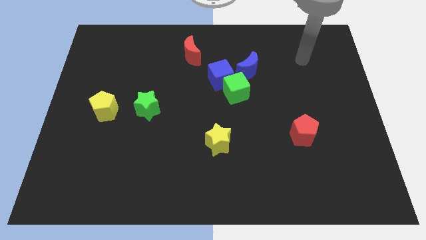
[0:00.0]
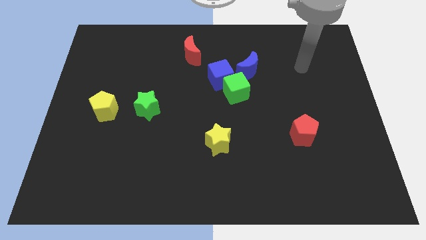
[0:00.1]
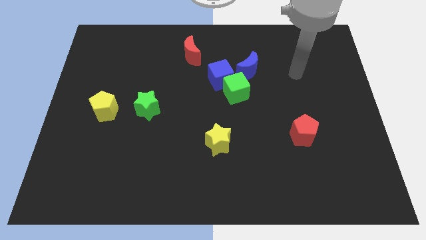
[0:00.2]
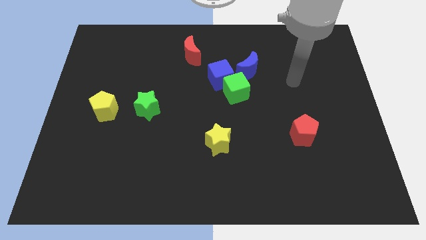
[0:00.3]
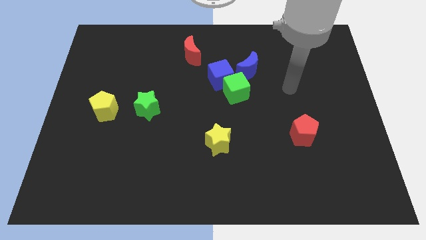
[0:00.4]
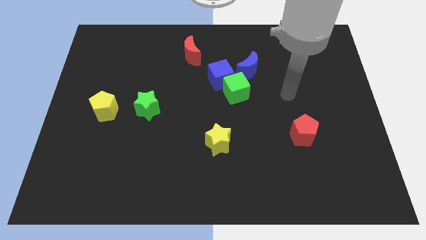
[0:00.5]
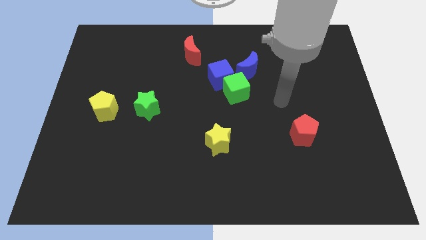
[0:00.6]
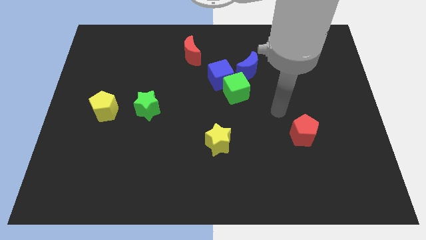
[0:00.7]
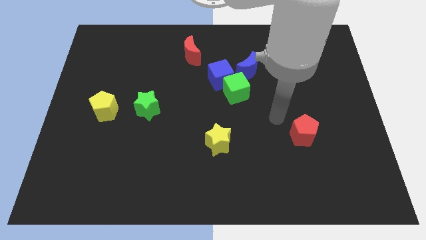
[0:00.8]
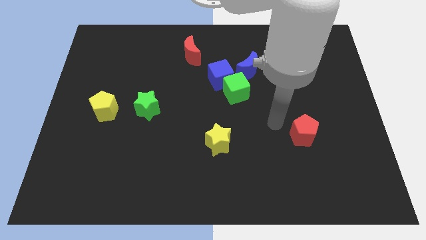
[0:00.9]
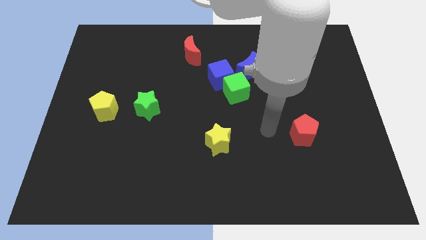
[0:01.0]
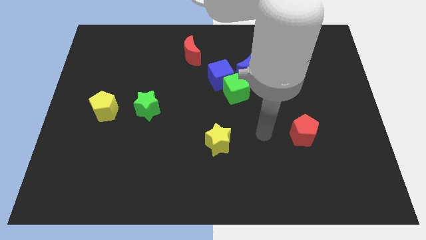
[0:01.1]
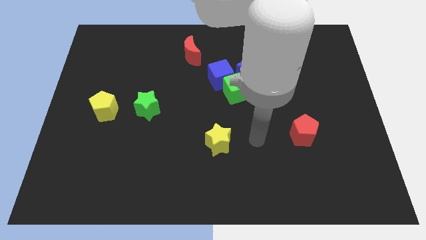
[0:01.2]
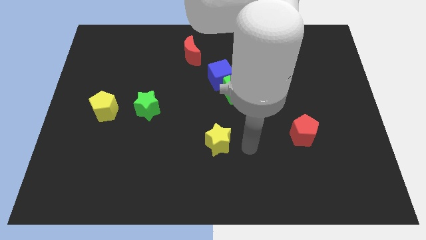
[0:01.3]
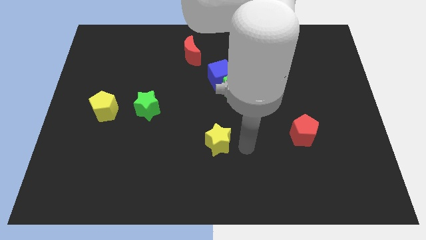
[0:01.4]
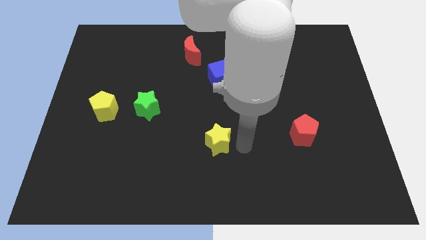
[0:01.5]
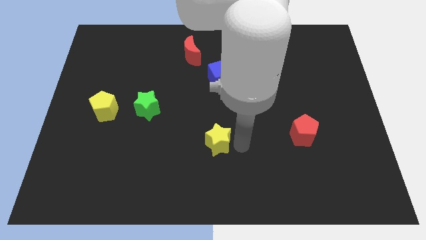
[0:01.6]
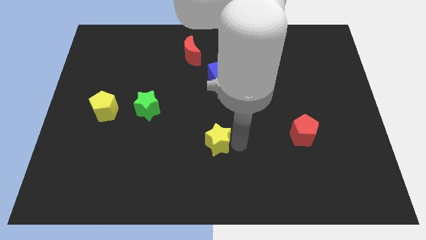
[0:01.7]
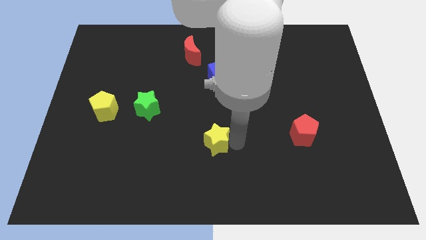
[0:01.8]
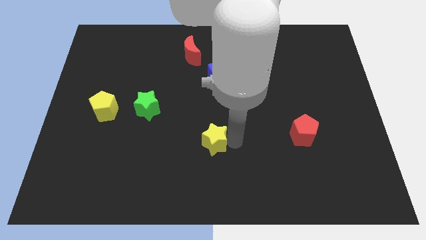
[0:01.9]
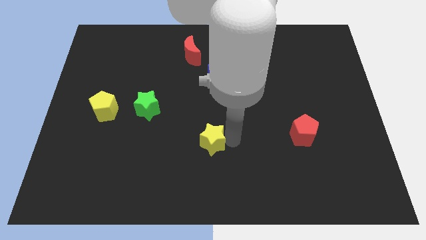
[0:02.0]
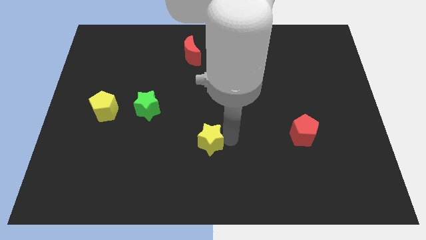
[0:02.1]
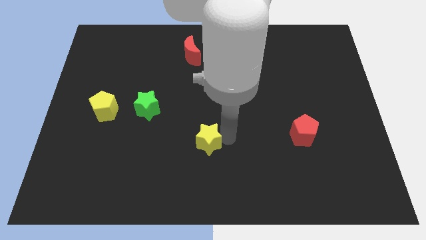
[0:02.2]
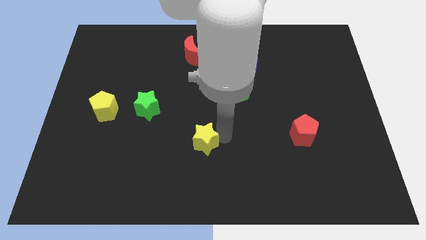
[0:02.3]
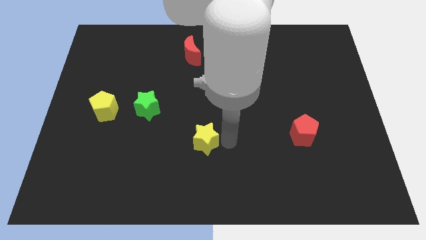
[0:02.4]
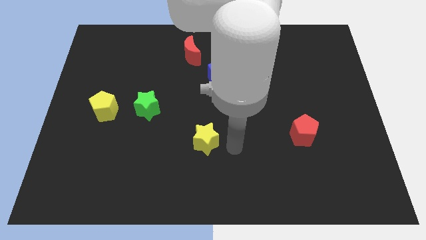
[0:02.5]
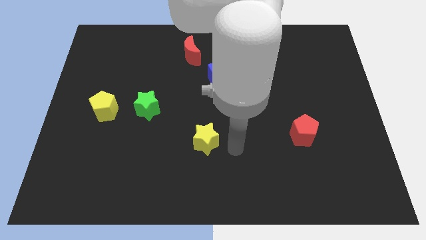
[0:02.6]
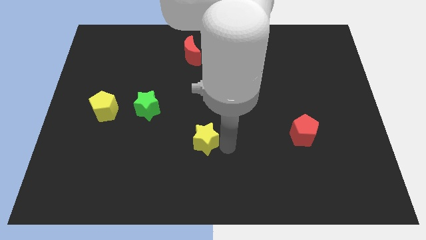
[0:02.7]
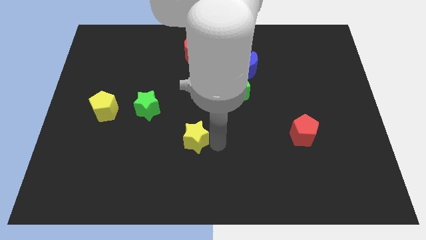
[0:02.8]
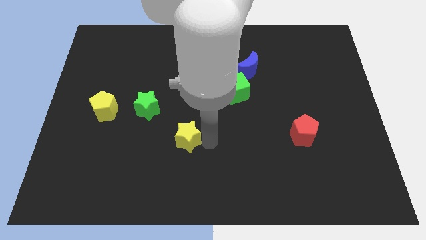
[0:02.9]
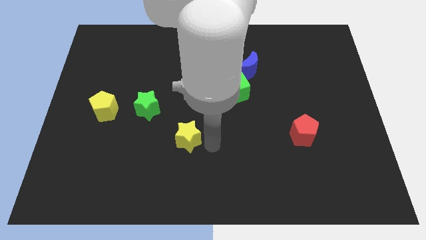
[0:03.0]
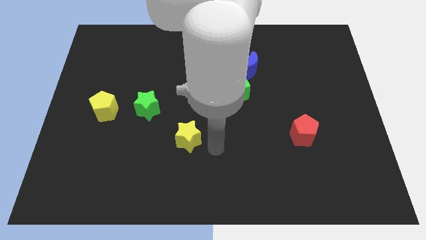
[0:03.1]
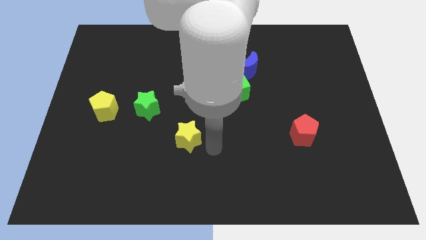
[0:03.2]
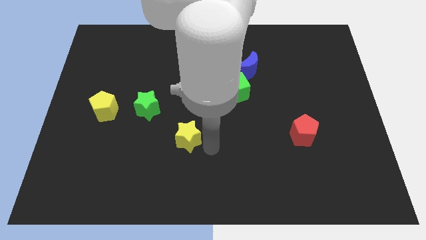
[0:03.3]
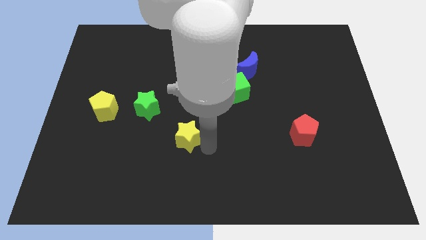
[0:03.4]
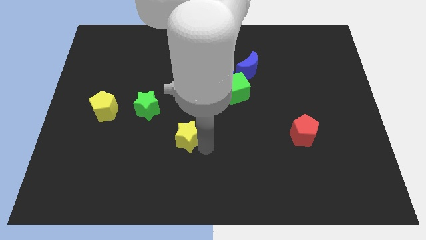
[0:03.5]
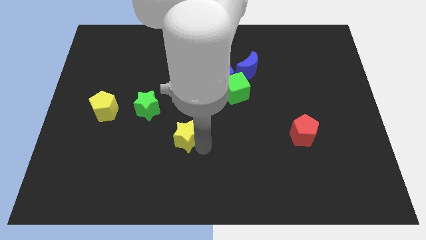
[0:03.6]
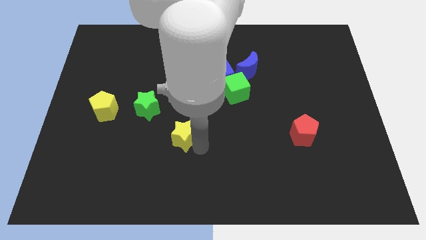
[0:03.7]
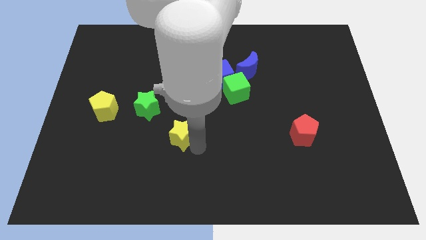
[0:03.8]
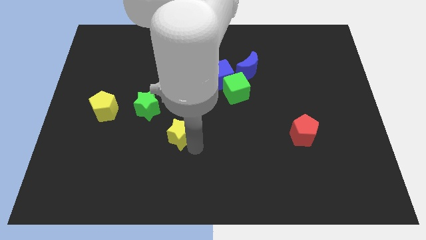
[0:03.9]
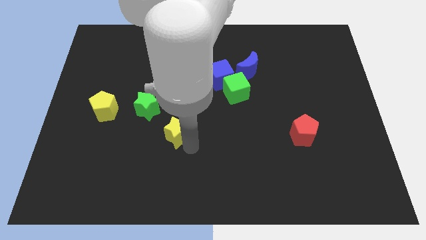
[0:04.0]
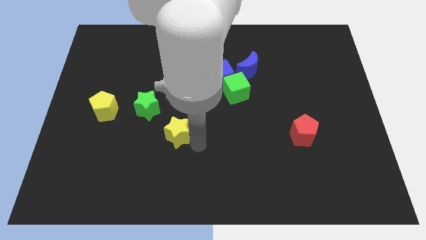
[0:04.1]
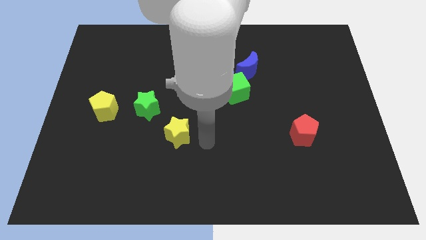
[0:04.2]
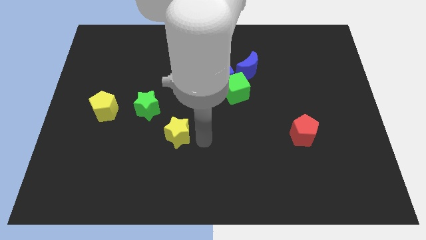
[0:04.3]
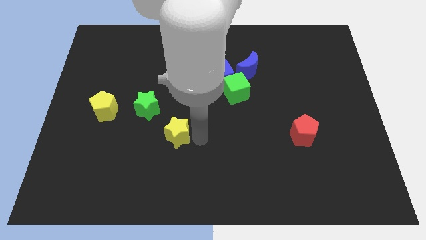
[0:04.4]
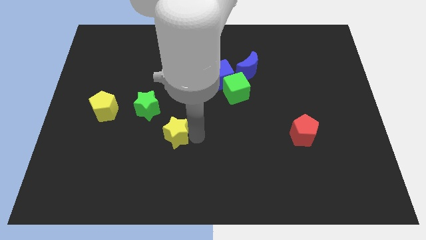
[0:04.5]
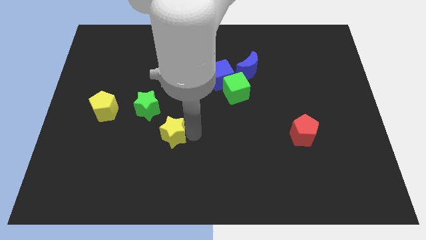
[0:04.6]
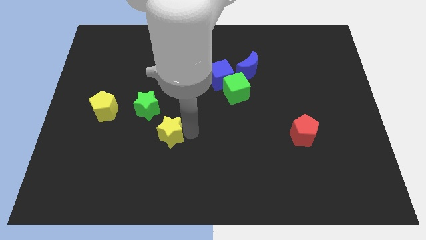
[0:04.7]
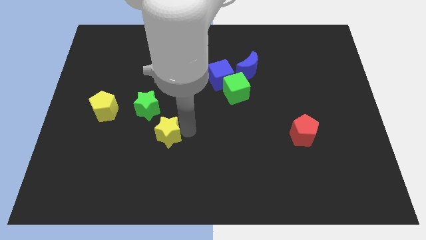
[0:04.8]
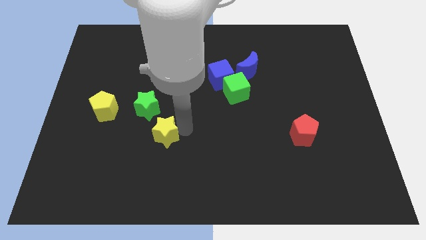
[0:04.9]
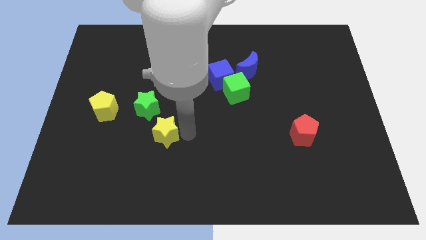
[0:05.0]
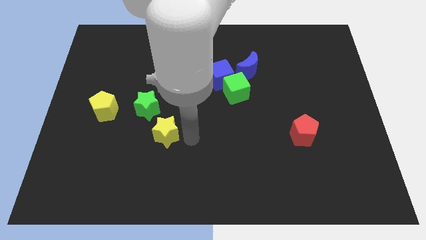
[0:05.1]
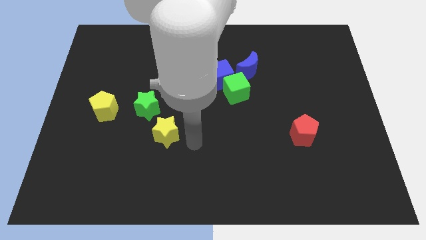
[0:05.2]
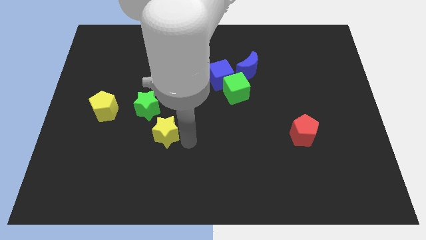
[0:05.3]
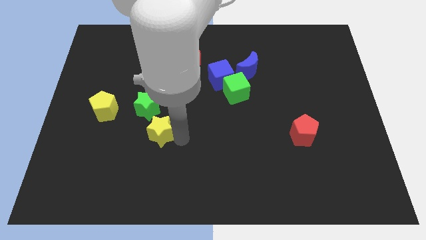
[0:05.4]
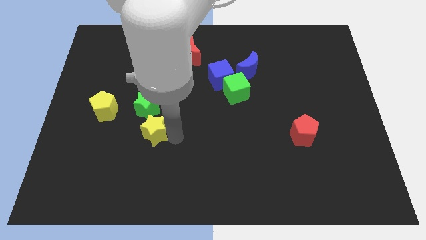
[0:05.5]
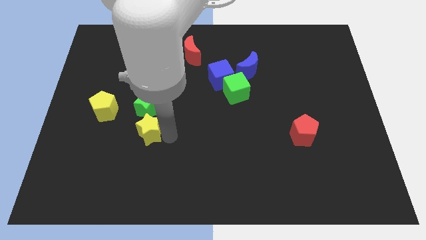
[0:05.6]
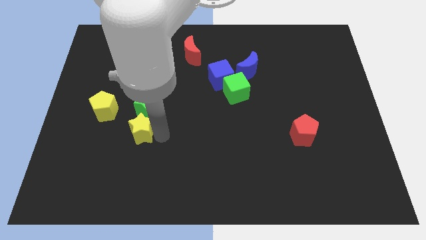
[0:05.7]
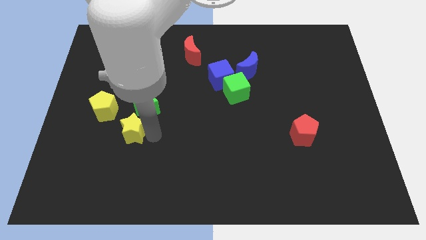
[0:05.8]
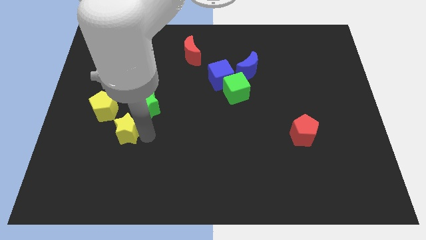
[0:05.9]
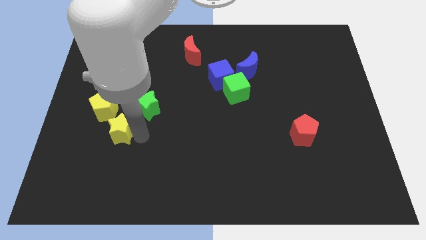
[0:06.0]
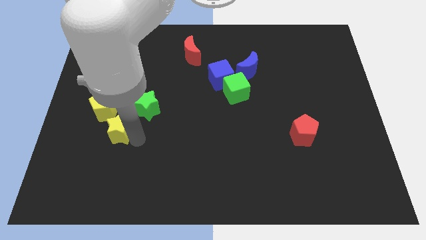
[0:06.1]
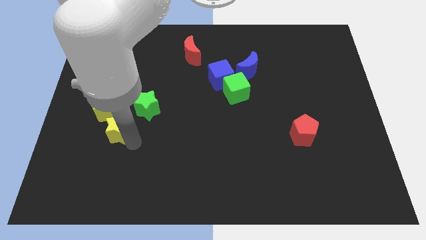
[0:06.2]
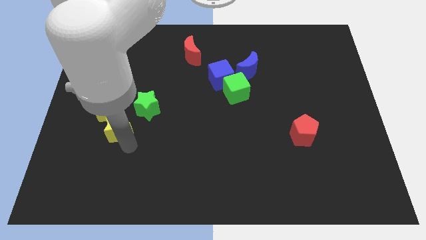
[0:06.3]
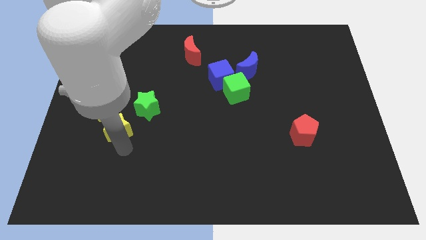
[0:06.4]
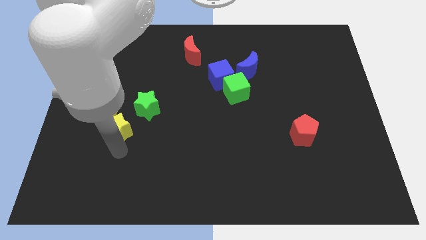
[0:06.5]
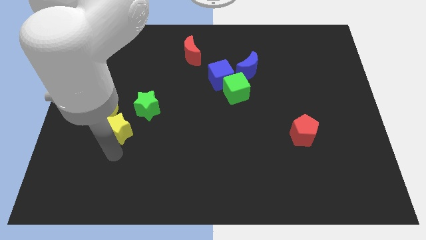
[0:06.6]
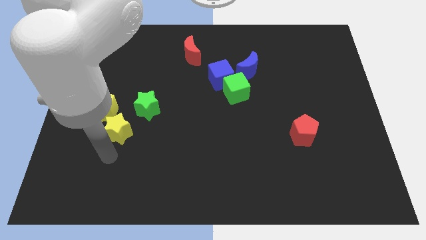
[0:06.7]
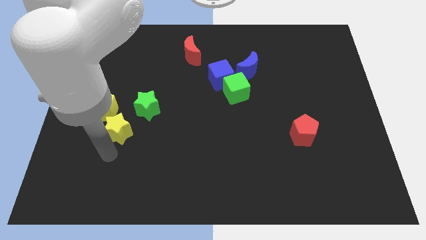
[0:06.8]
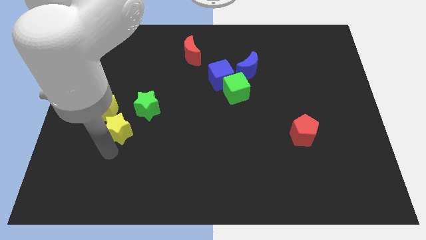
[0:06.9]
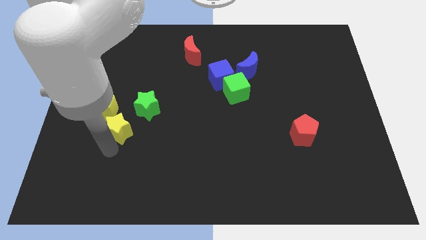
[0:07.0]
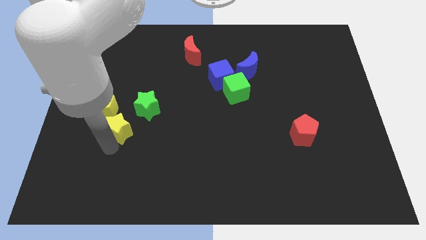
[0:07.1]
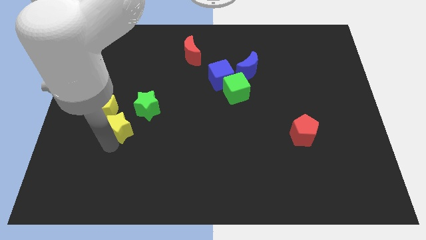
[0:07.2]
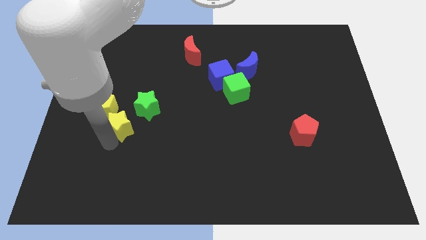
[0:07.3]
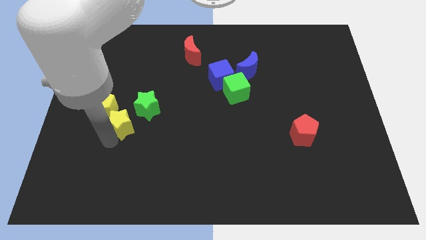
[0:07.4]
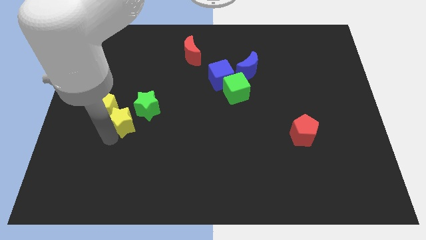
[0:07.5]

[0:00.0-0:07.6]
put the yellow star close to the yellow pentagon
